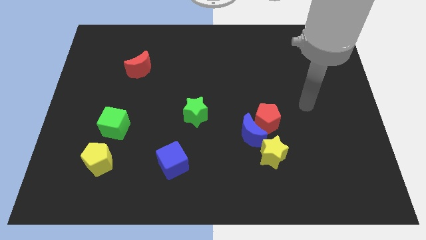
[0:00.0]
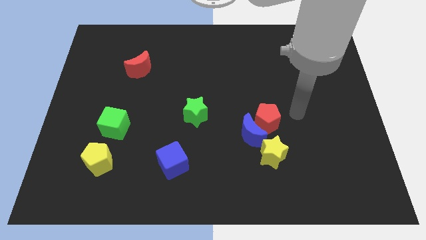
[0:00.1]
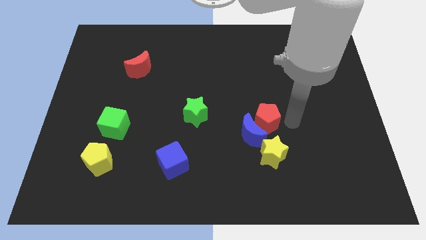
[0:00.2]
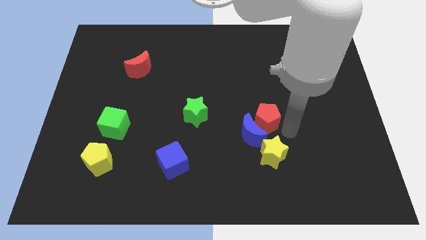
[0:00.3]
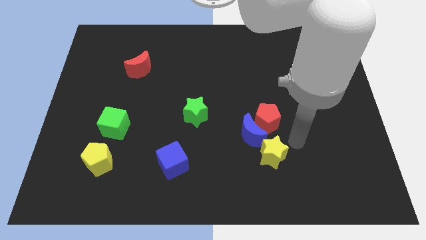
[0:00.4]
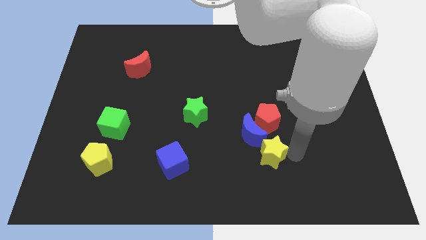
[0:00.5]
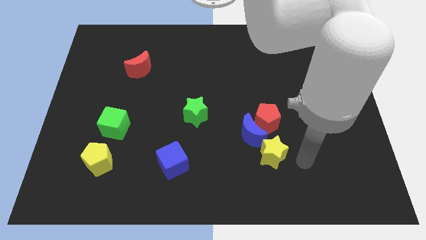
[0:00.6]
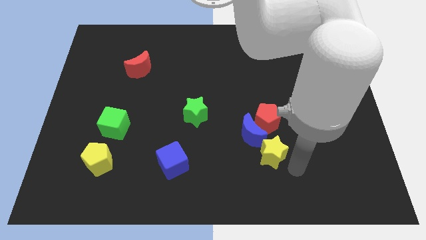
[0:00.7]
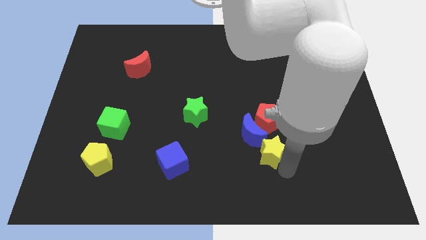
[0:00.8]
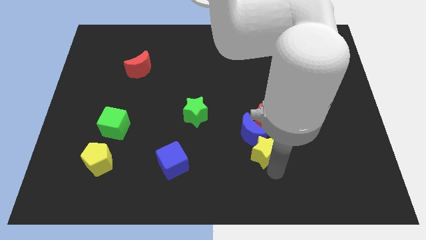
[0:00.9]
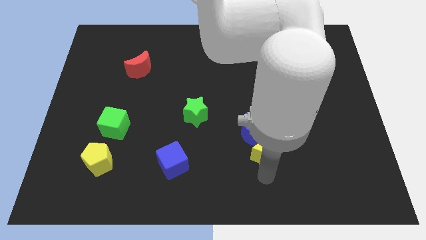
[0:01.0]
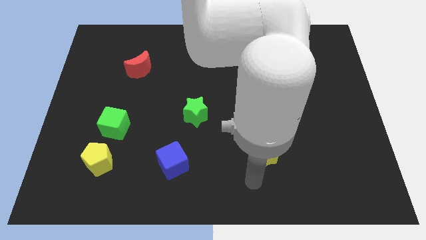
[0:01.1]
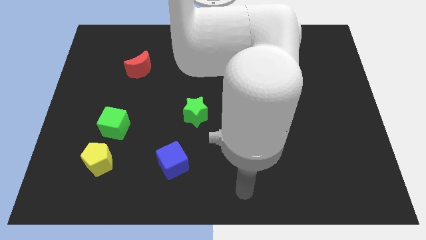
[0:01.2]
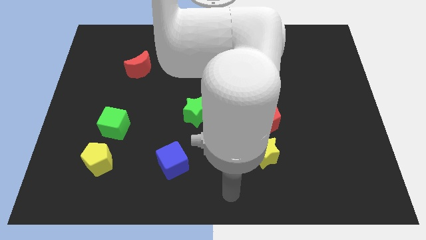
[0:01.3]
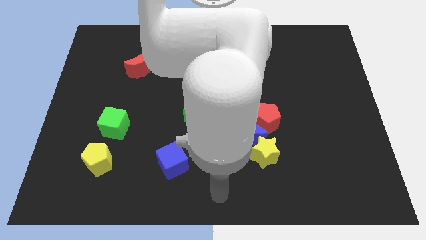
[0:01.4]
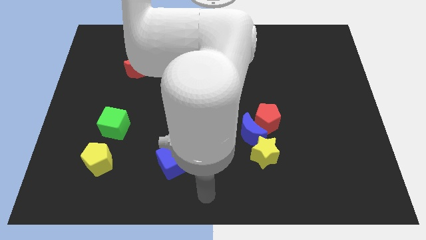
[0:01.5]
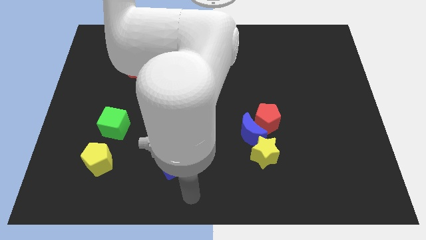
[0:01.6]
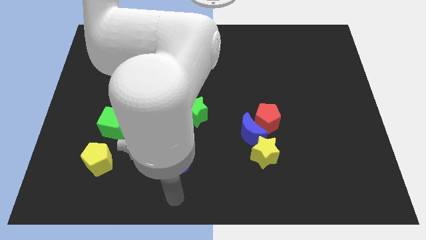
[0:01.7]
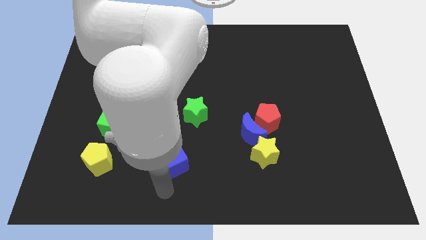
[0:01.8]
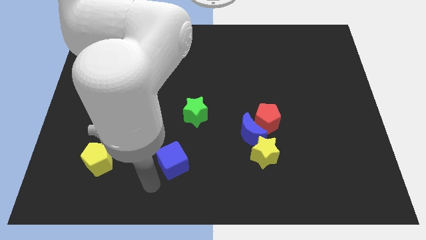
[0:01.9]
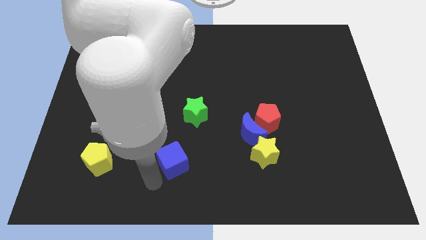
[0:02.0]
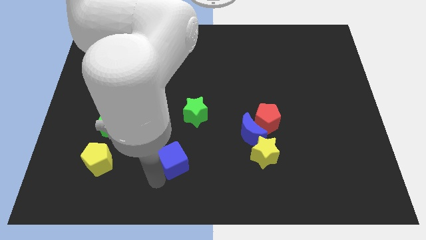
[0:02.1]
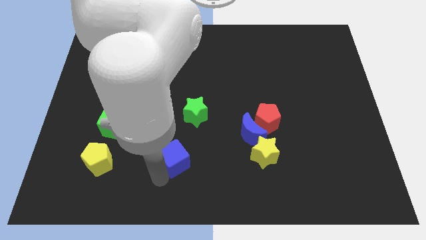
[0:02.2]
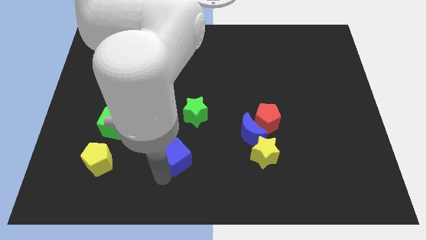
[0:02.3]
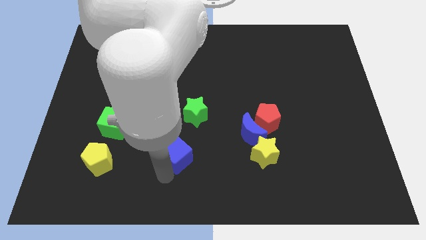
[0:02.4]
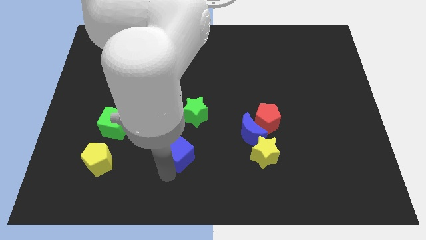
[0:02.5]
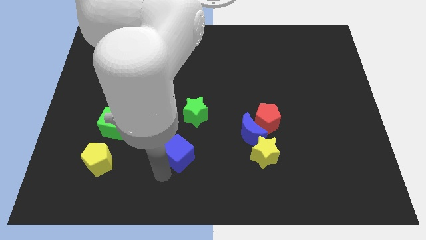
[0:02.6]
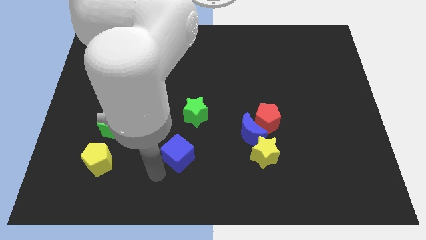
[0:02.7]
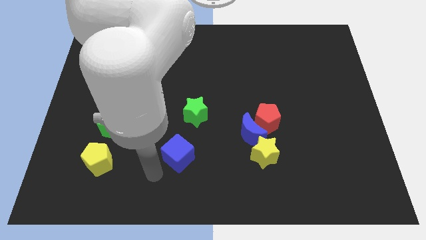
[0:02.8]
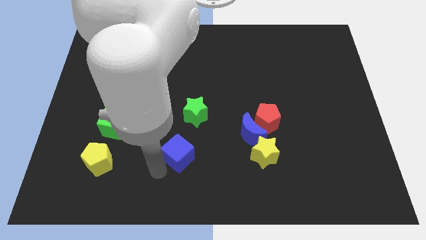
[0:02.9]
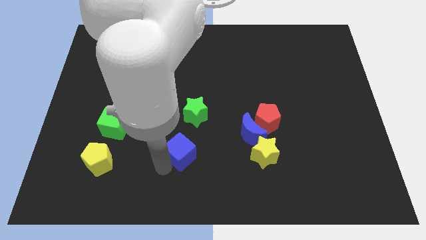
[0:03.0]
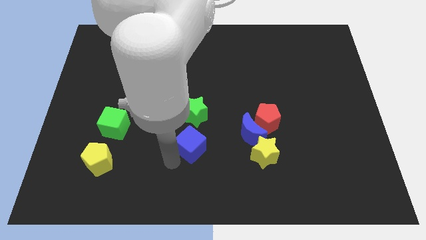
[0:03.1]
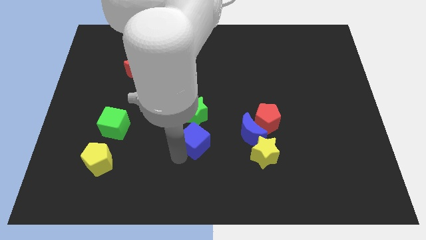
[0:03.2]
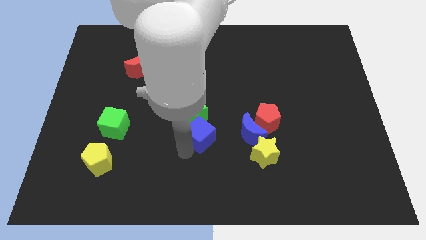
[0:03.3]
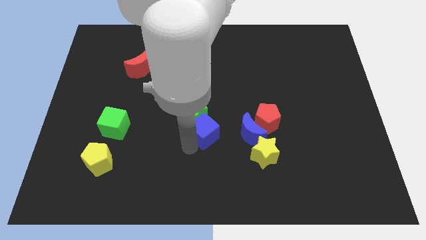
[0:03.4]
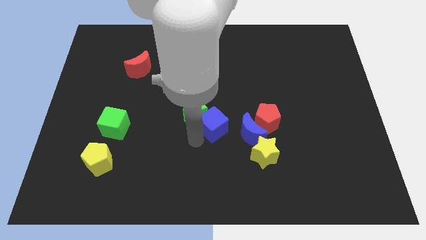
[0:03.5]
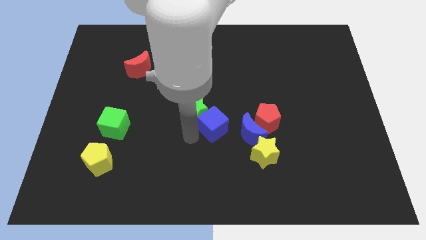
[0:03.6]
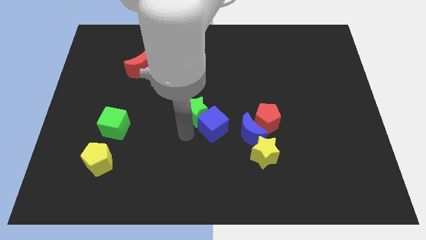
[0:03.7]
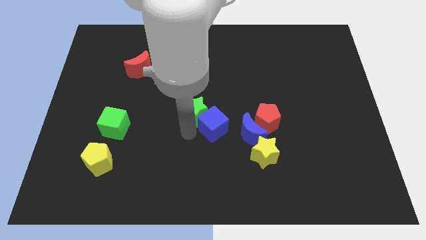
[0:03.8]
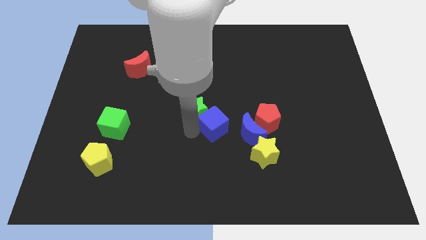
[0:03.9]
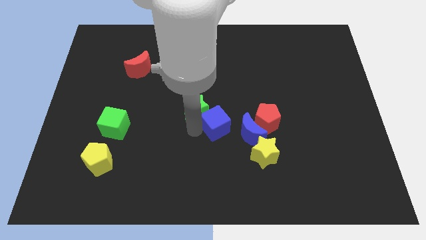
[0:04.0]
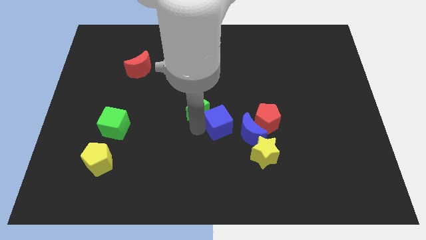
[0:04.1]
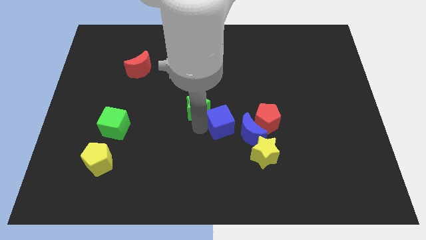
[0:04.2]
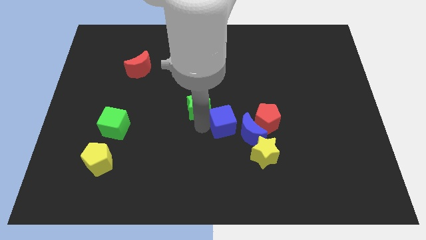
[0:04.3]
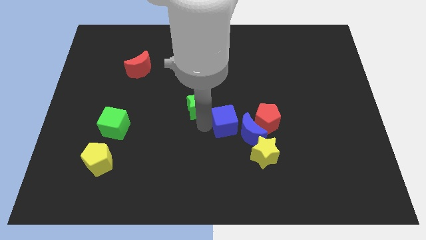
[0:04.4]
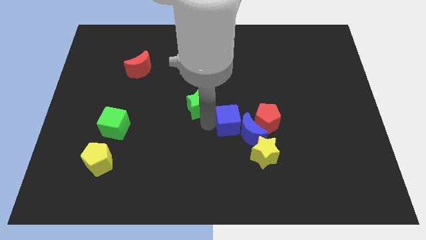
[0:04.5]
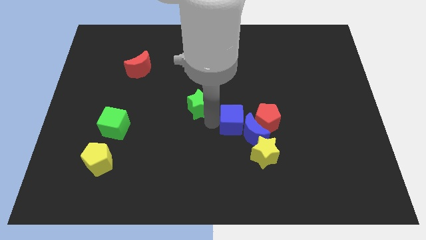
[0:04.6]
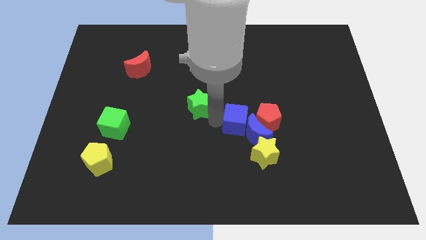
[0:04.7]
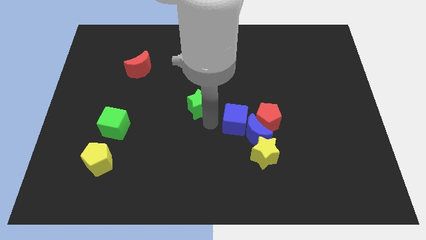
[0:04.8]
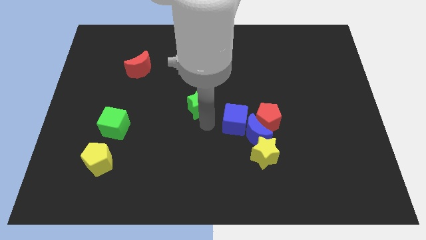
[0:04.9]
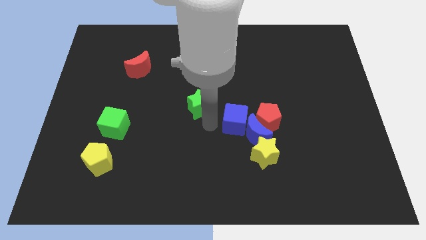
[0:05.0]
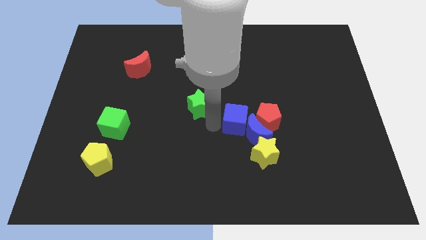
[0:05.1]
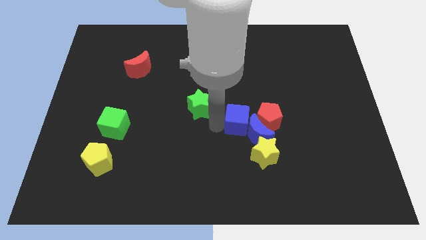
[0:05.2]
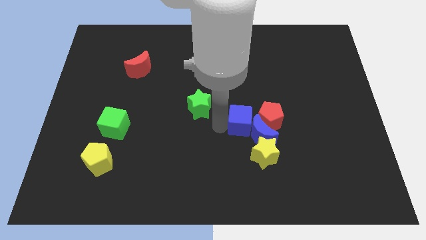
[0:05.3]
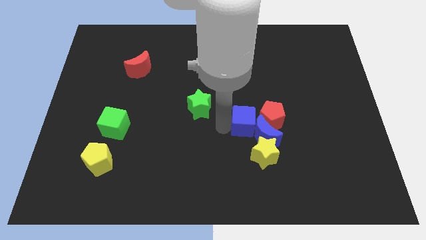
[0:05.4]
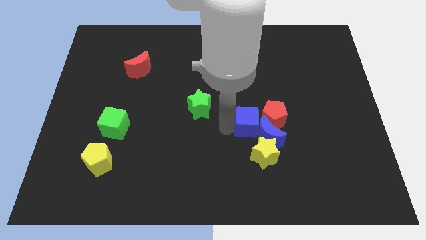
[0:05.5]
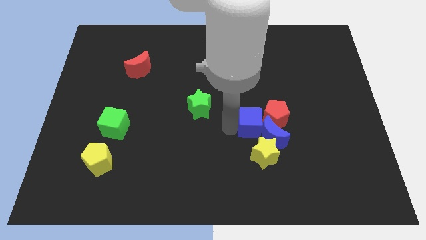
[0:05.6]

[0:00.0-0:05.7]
put the blue cube close to the red pentagon

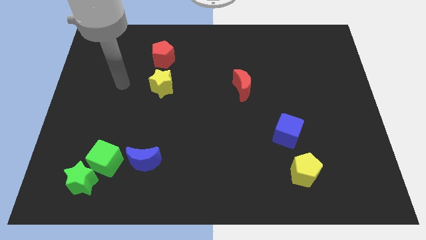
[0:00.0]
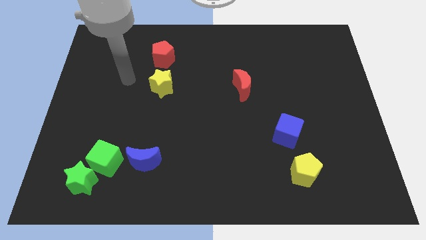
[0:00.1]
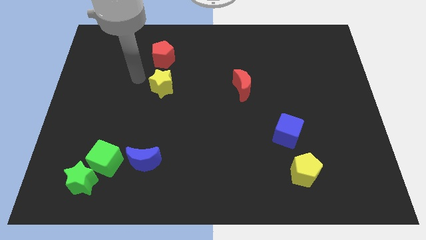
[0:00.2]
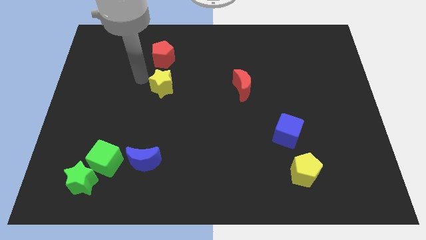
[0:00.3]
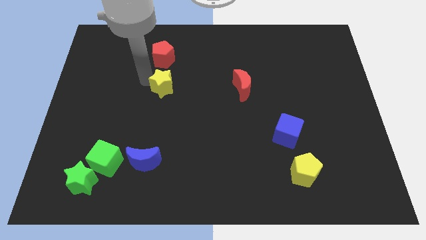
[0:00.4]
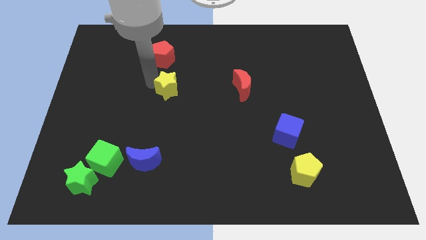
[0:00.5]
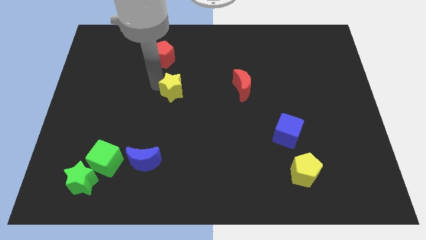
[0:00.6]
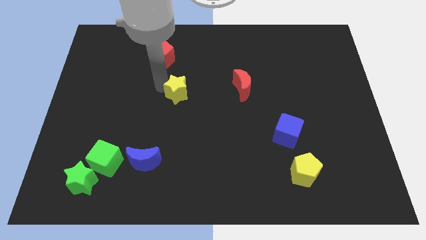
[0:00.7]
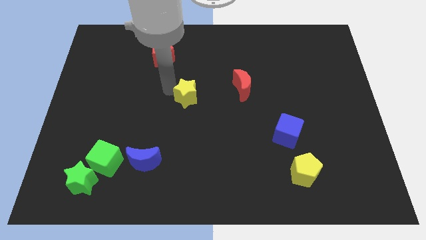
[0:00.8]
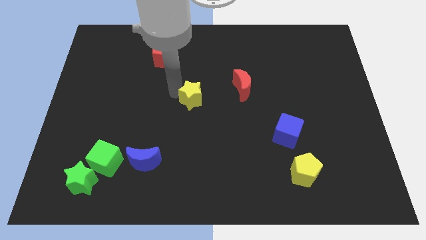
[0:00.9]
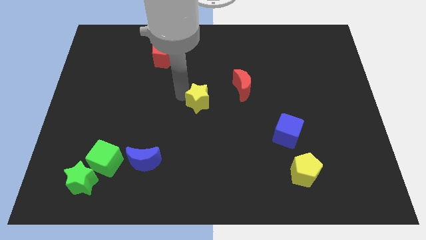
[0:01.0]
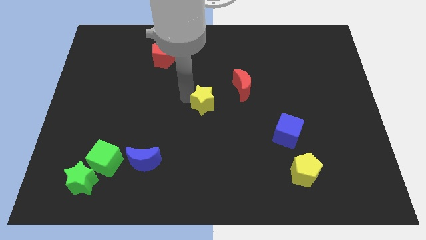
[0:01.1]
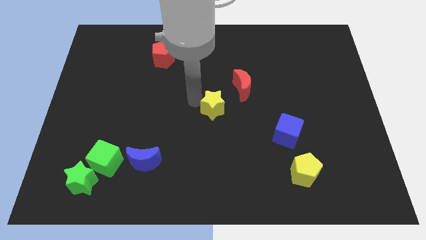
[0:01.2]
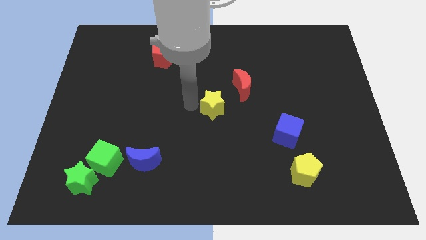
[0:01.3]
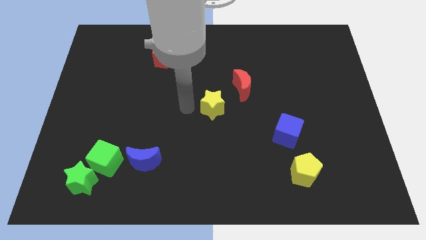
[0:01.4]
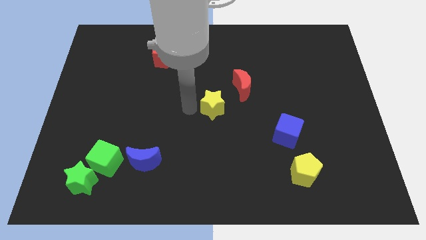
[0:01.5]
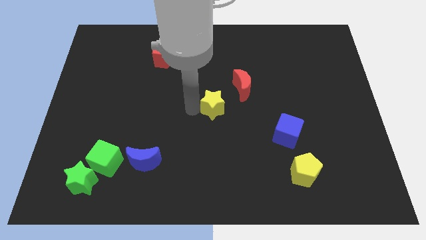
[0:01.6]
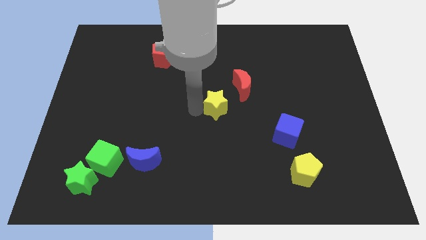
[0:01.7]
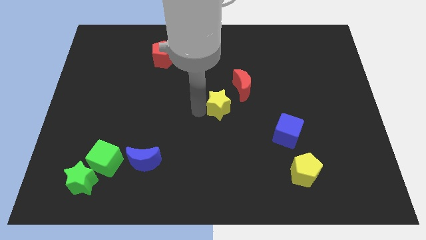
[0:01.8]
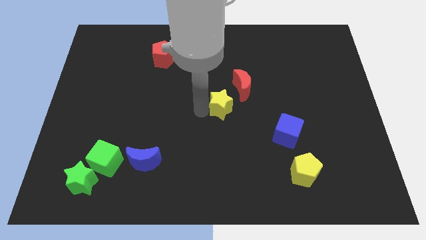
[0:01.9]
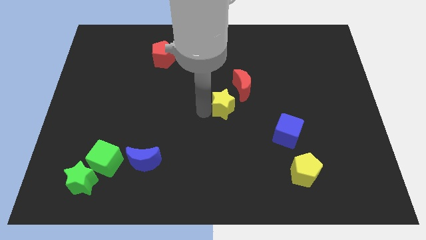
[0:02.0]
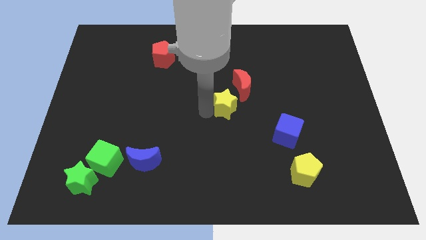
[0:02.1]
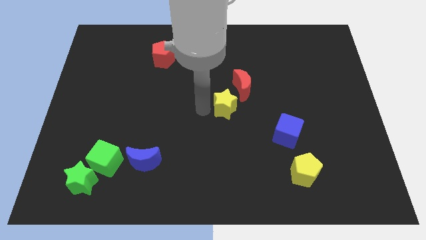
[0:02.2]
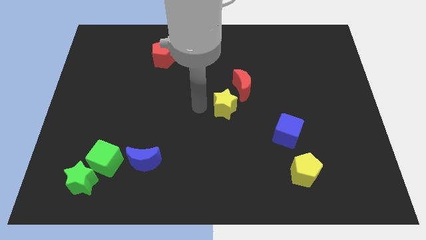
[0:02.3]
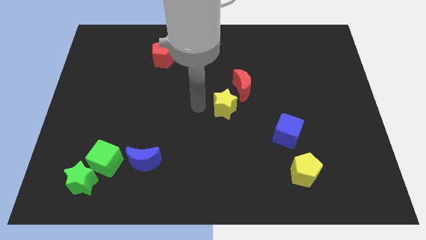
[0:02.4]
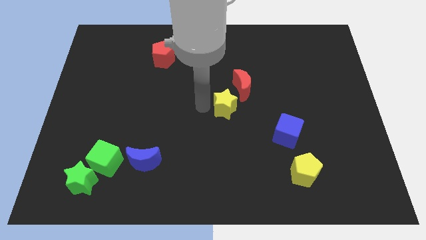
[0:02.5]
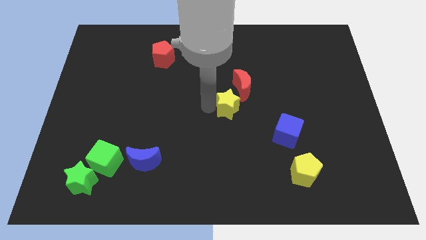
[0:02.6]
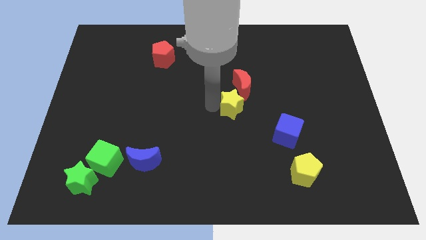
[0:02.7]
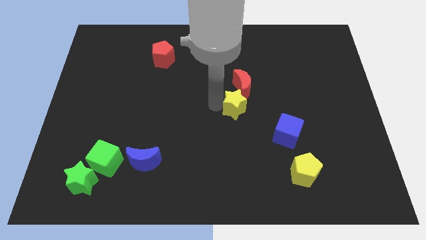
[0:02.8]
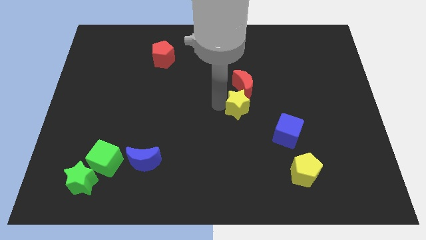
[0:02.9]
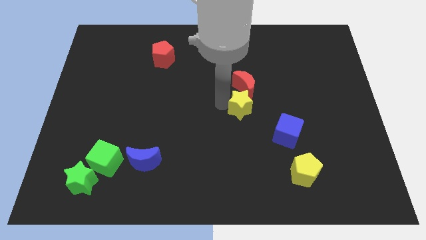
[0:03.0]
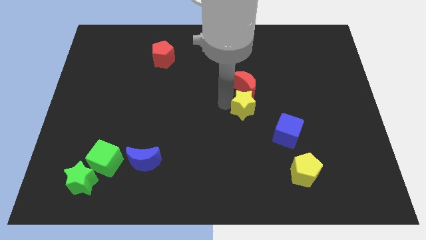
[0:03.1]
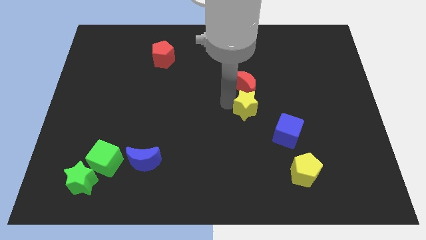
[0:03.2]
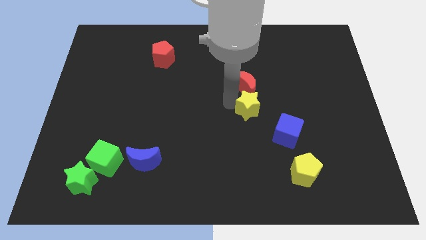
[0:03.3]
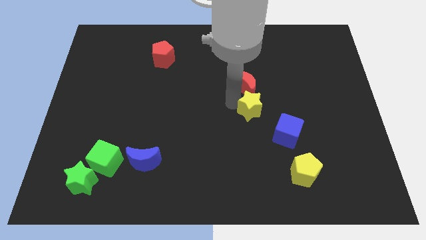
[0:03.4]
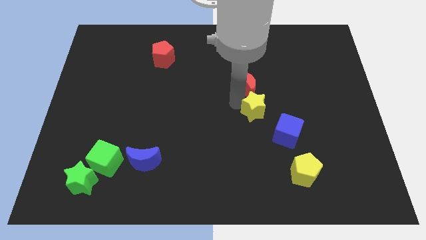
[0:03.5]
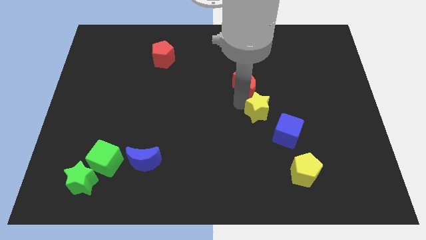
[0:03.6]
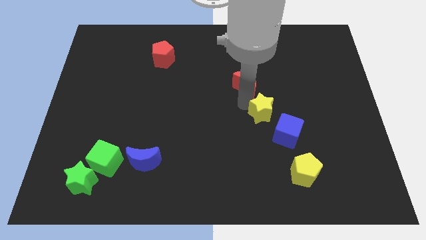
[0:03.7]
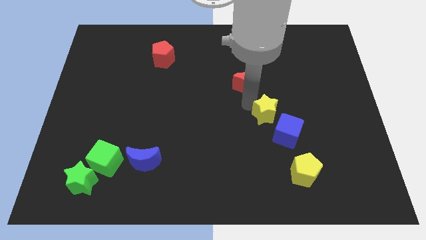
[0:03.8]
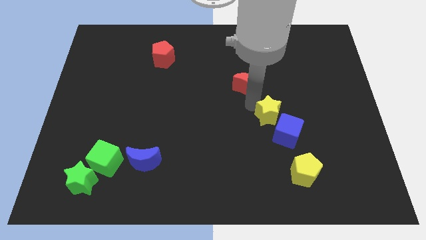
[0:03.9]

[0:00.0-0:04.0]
push the yellow star towards the blue cube
